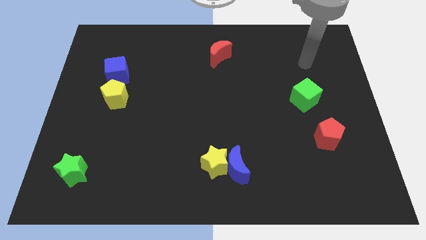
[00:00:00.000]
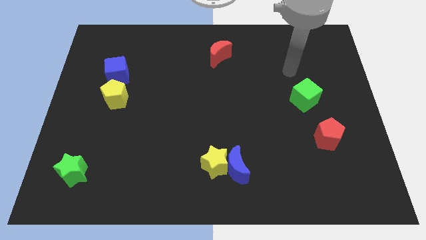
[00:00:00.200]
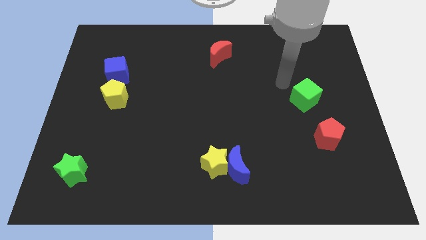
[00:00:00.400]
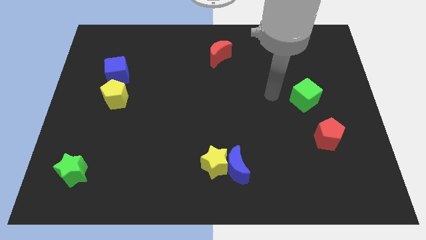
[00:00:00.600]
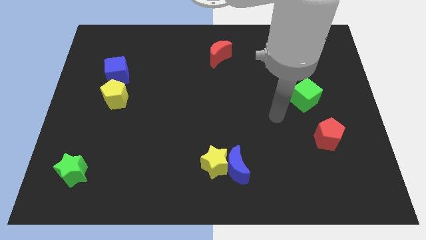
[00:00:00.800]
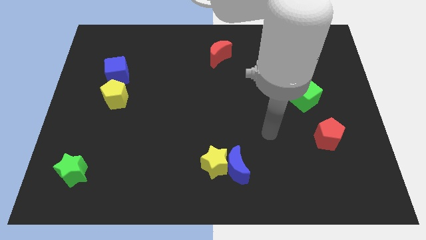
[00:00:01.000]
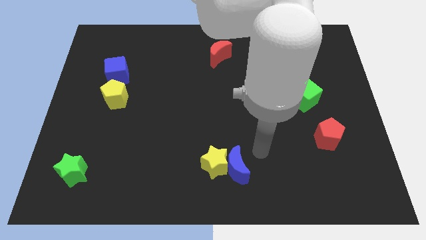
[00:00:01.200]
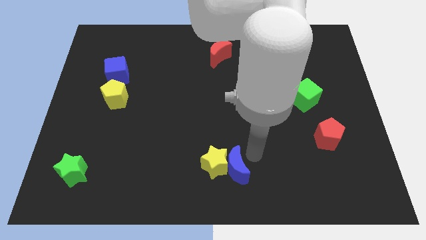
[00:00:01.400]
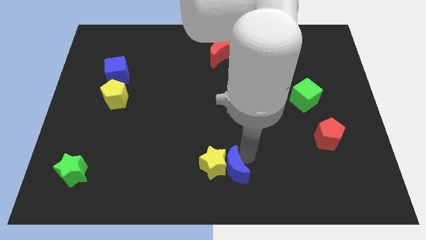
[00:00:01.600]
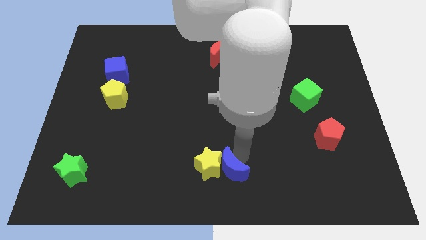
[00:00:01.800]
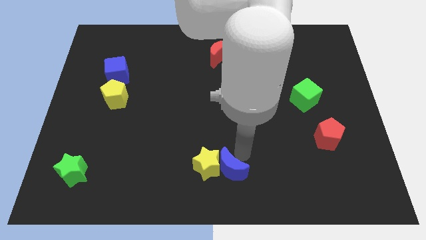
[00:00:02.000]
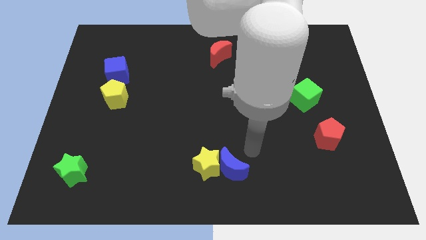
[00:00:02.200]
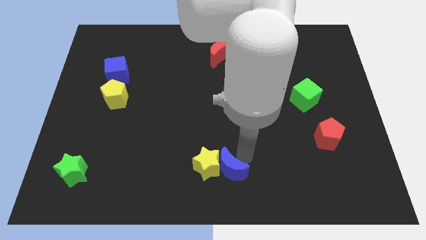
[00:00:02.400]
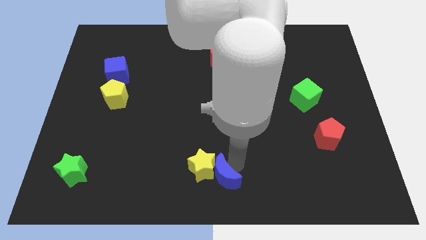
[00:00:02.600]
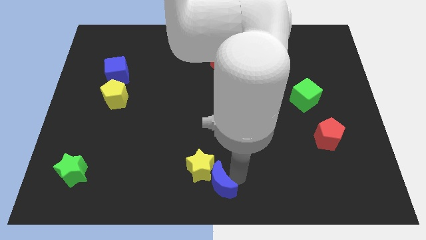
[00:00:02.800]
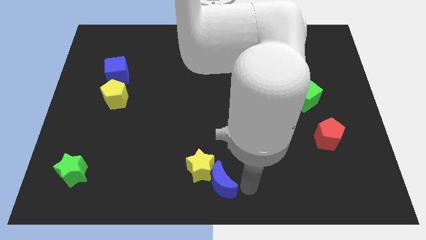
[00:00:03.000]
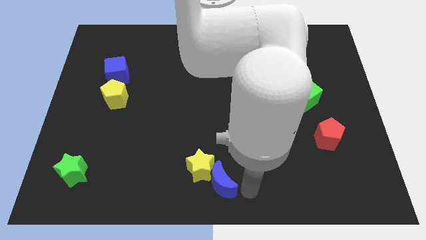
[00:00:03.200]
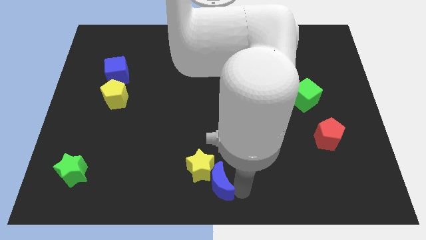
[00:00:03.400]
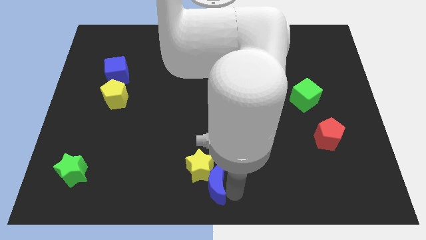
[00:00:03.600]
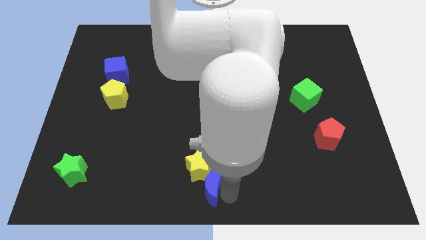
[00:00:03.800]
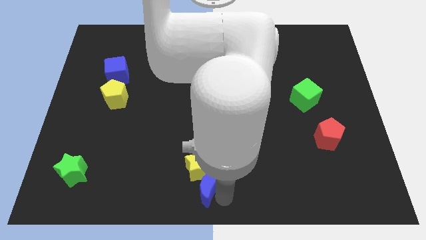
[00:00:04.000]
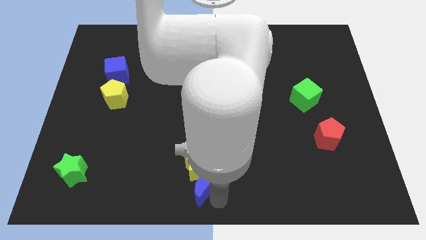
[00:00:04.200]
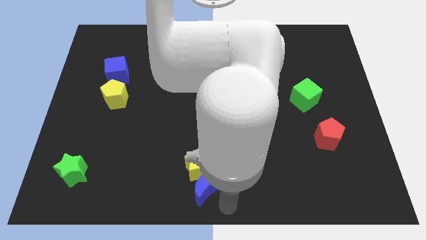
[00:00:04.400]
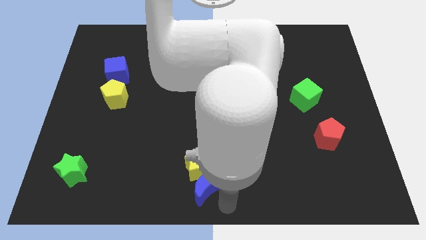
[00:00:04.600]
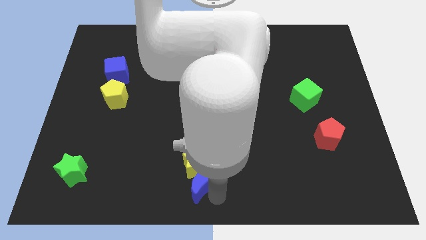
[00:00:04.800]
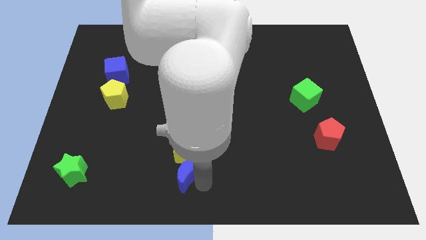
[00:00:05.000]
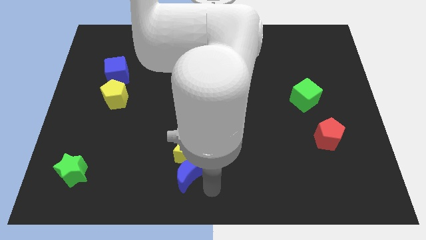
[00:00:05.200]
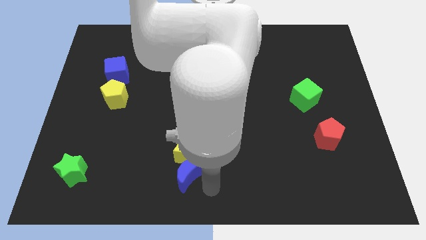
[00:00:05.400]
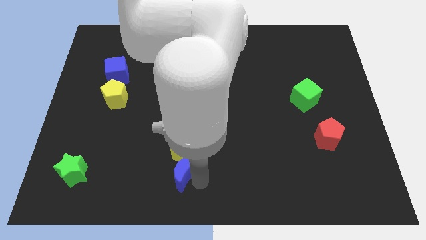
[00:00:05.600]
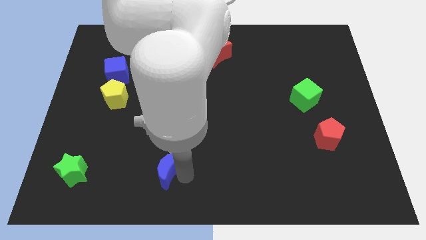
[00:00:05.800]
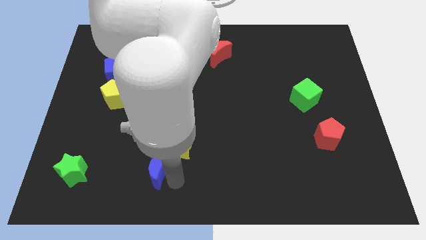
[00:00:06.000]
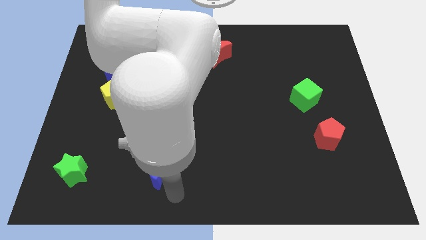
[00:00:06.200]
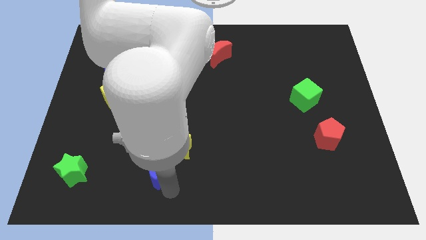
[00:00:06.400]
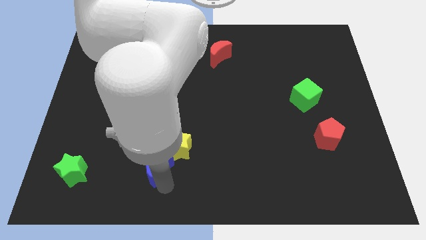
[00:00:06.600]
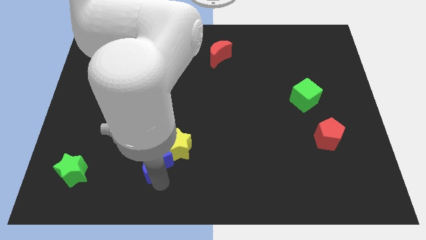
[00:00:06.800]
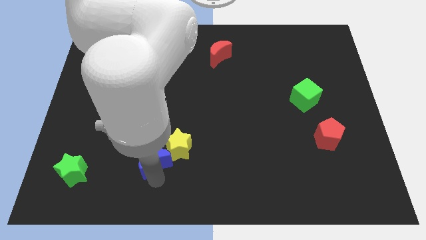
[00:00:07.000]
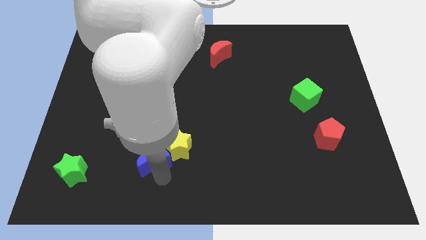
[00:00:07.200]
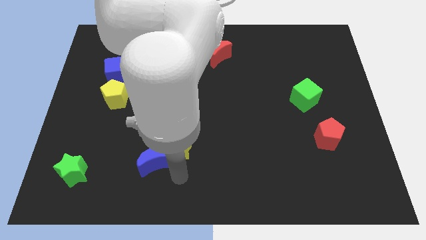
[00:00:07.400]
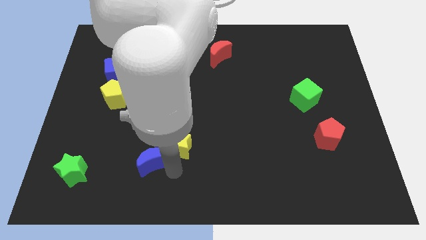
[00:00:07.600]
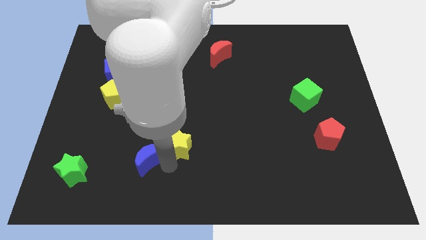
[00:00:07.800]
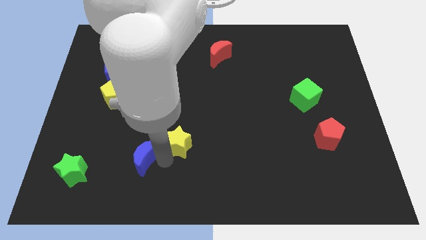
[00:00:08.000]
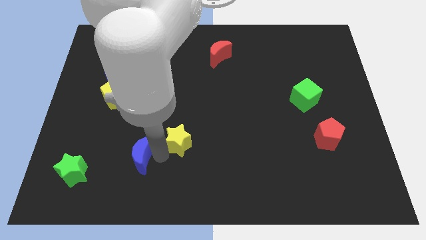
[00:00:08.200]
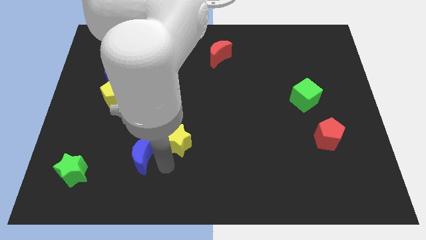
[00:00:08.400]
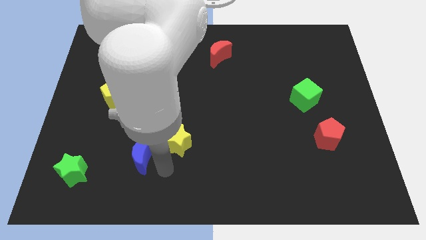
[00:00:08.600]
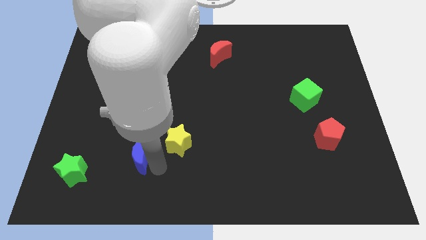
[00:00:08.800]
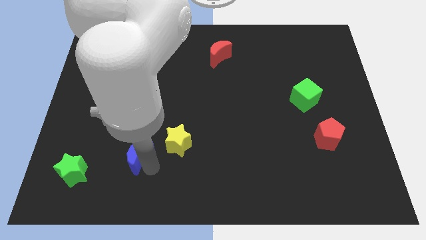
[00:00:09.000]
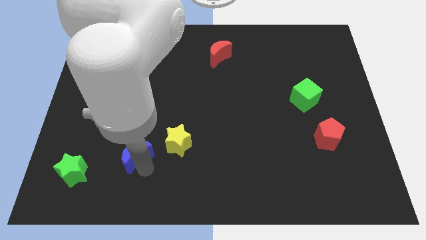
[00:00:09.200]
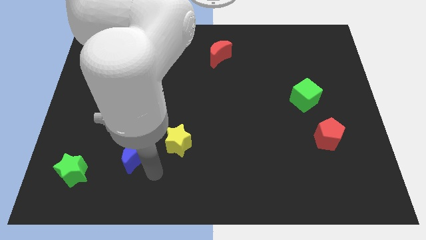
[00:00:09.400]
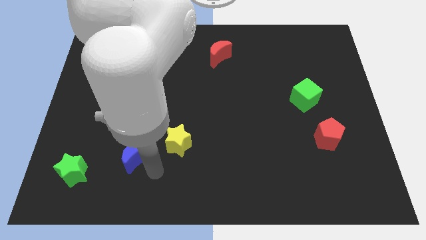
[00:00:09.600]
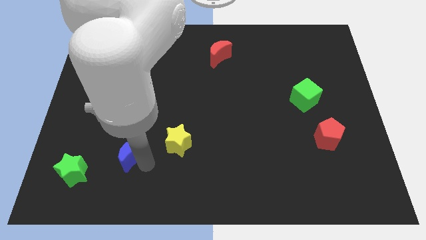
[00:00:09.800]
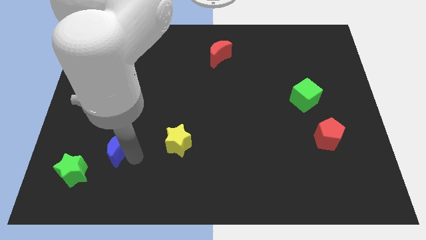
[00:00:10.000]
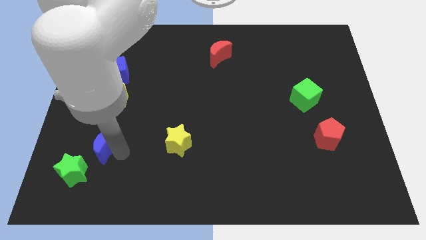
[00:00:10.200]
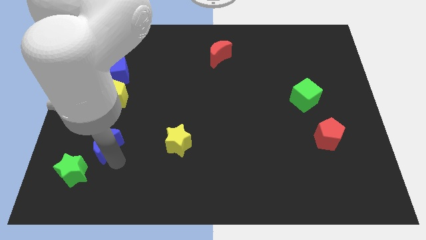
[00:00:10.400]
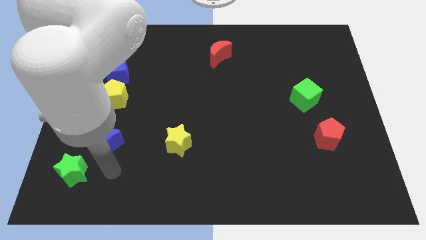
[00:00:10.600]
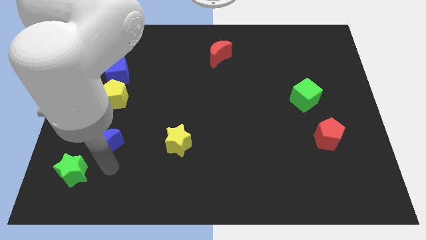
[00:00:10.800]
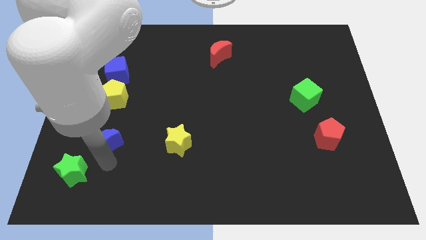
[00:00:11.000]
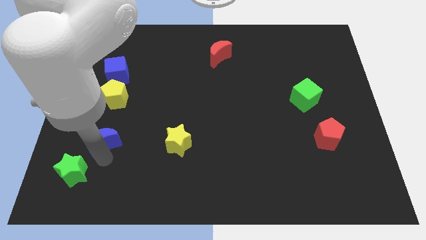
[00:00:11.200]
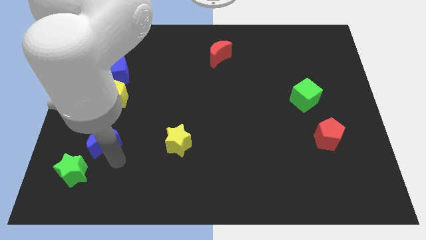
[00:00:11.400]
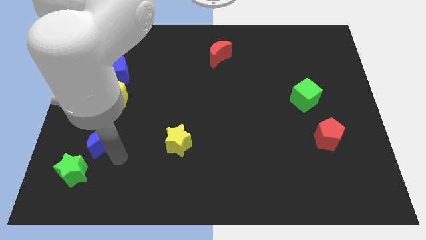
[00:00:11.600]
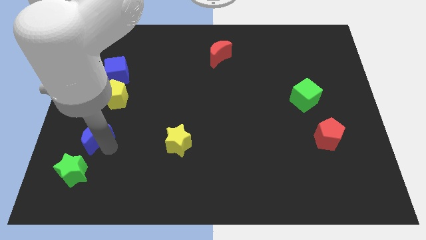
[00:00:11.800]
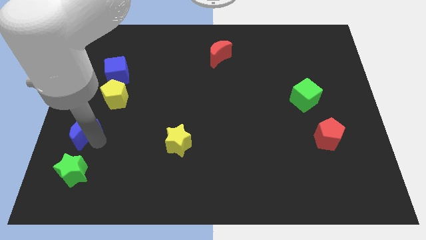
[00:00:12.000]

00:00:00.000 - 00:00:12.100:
put the blue moon to the center left

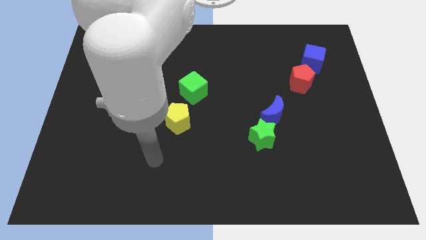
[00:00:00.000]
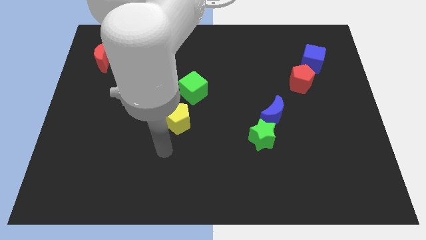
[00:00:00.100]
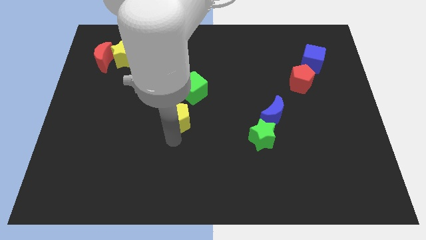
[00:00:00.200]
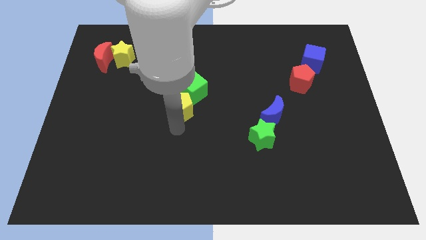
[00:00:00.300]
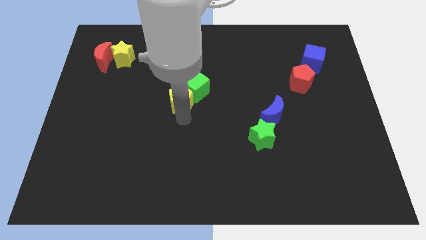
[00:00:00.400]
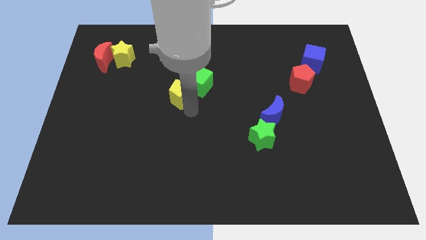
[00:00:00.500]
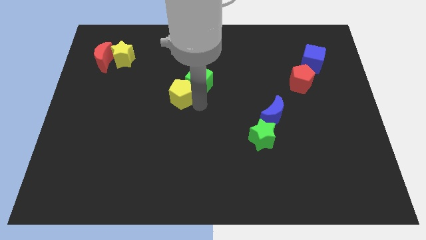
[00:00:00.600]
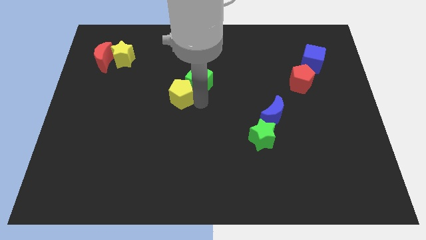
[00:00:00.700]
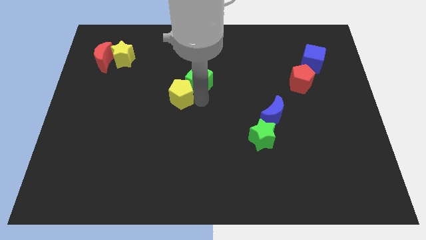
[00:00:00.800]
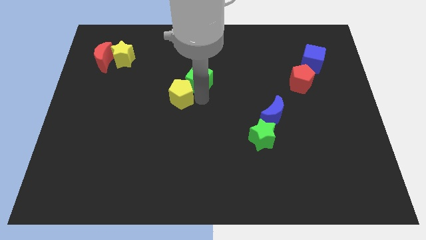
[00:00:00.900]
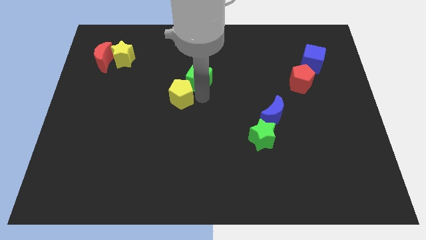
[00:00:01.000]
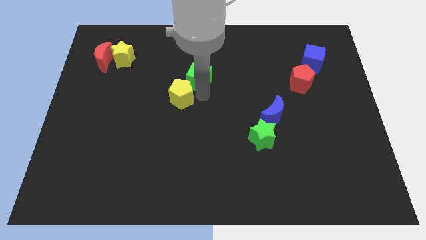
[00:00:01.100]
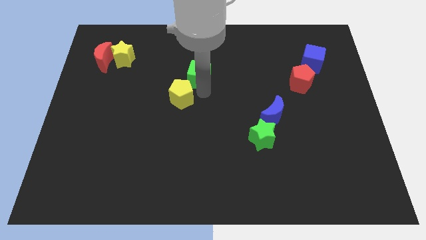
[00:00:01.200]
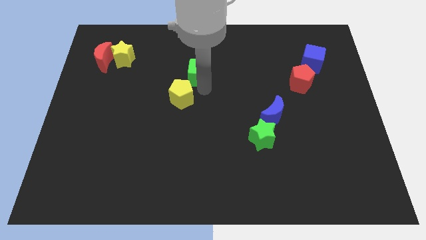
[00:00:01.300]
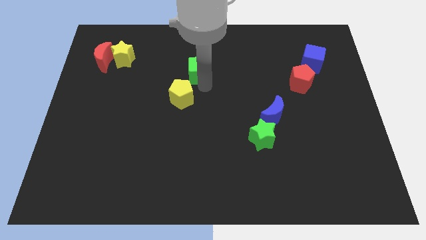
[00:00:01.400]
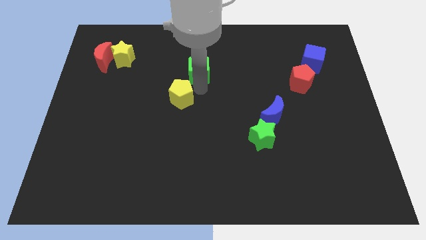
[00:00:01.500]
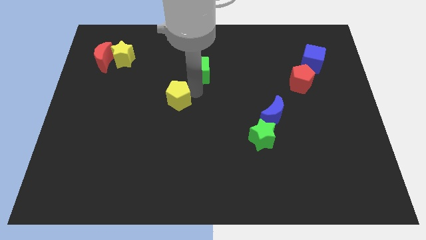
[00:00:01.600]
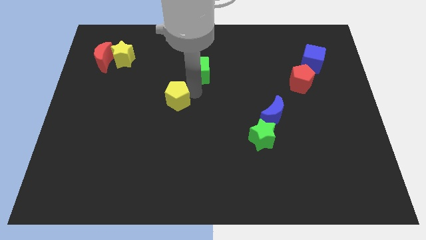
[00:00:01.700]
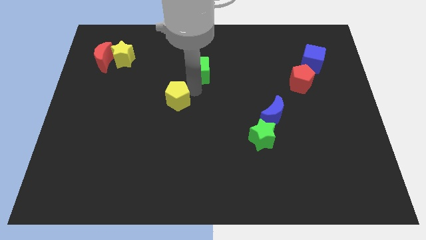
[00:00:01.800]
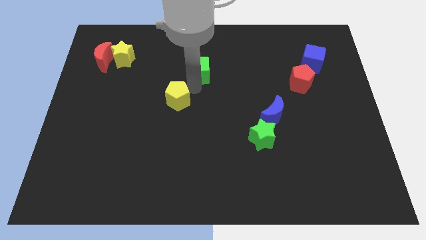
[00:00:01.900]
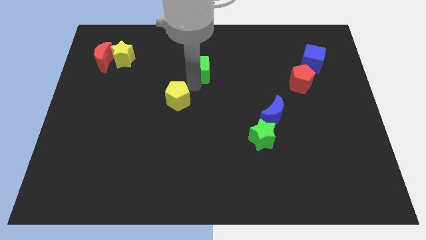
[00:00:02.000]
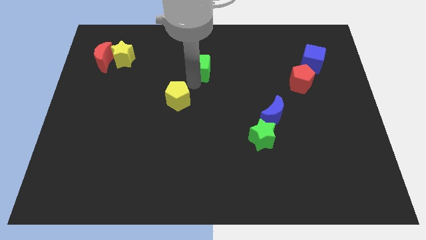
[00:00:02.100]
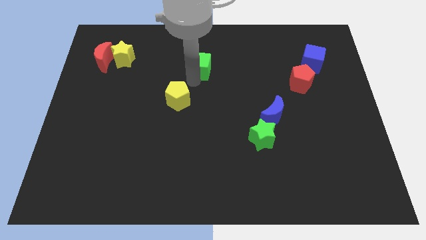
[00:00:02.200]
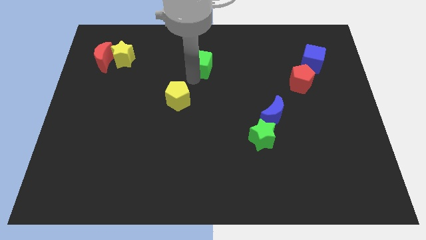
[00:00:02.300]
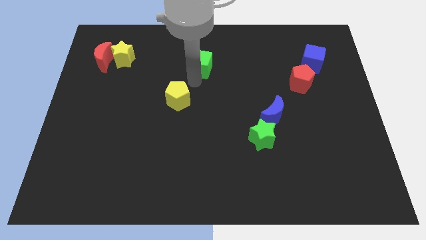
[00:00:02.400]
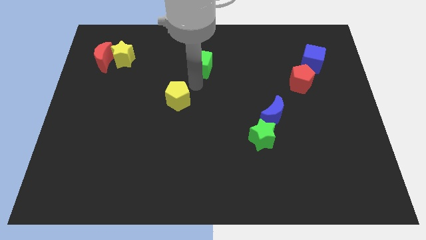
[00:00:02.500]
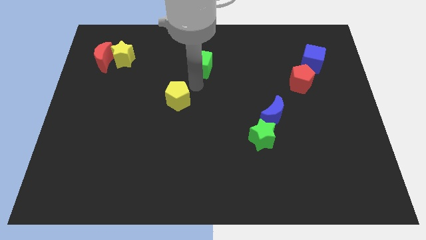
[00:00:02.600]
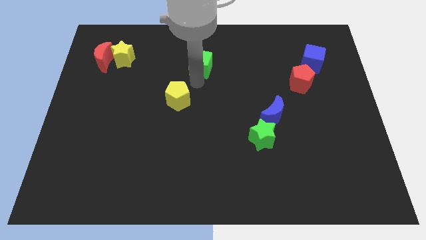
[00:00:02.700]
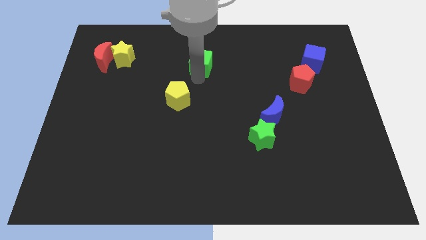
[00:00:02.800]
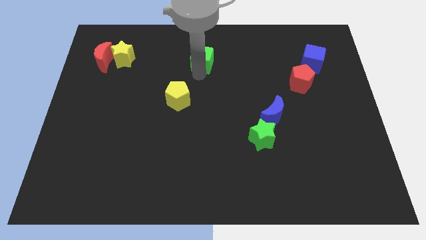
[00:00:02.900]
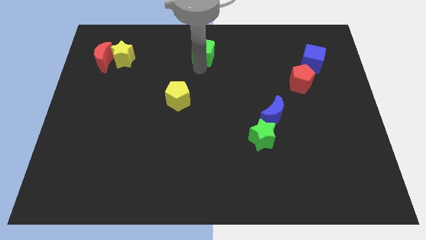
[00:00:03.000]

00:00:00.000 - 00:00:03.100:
slide the green cube to the towards your base
